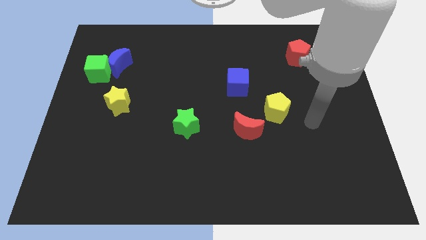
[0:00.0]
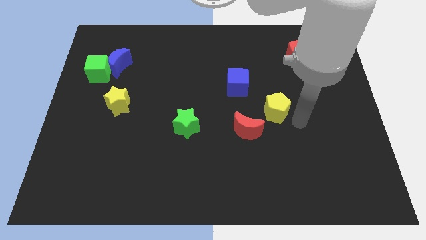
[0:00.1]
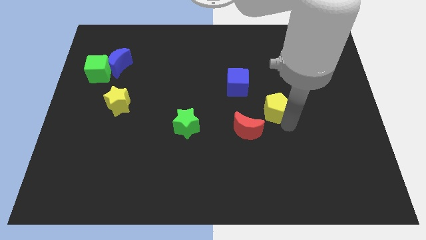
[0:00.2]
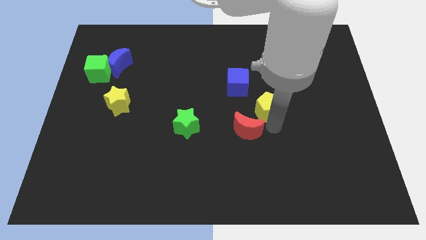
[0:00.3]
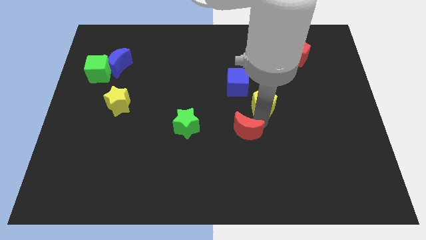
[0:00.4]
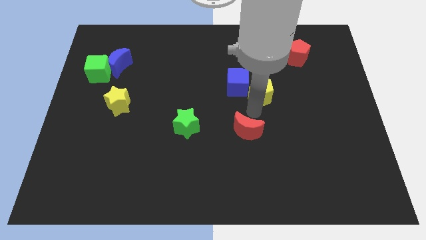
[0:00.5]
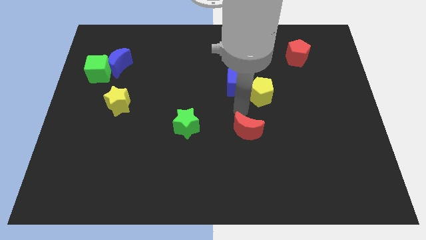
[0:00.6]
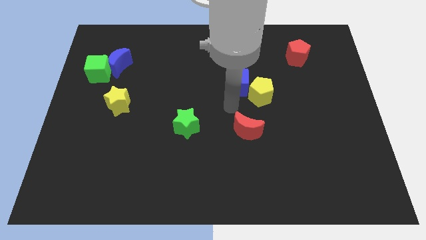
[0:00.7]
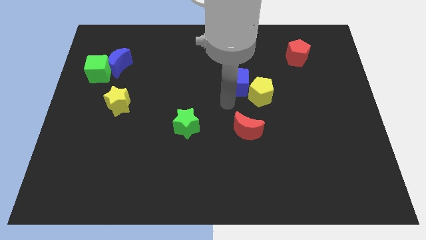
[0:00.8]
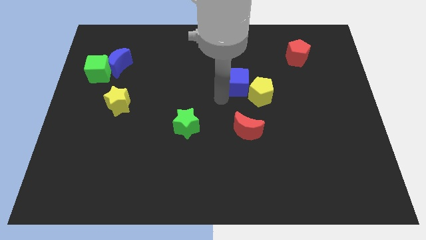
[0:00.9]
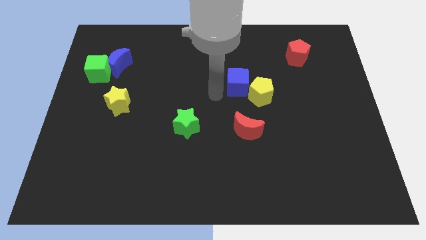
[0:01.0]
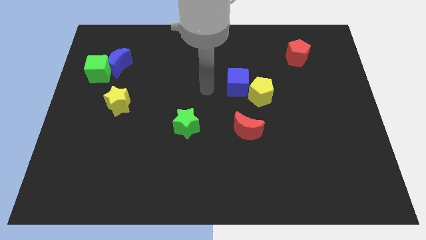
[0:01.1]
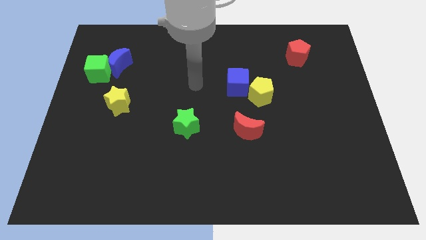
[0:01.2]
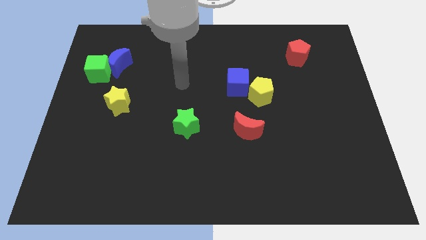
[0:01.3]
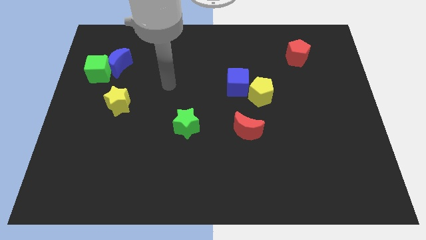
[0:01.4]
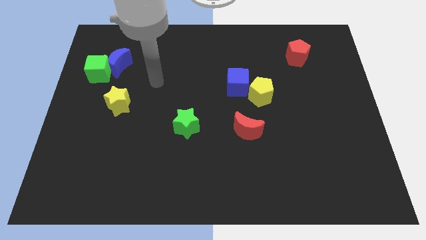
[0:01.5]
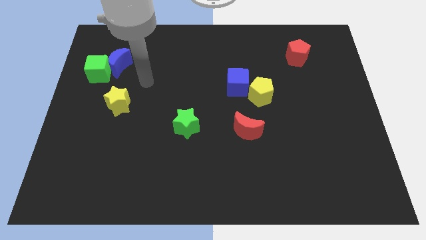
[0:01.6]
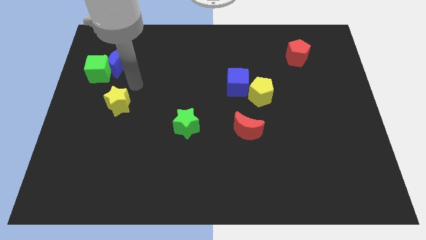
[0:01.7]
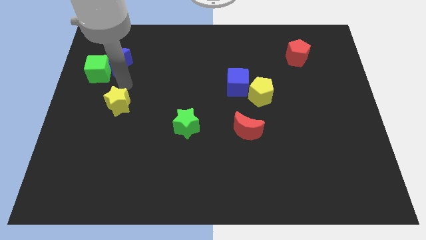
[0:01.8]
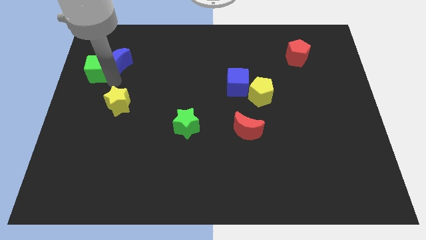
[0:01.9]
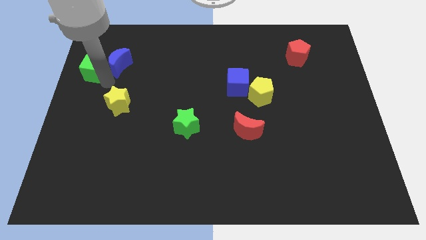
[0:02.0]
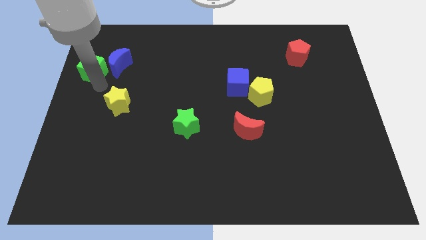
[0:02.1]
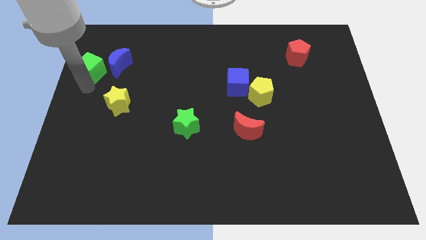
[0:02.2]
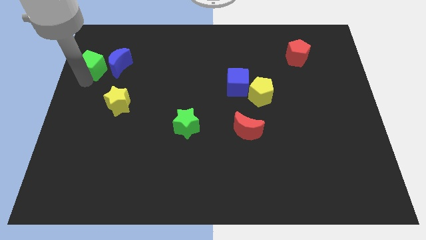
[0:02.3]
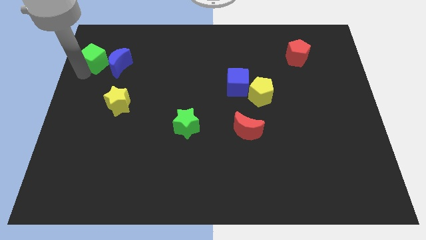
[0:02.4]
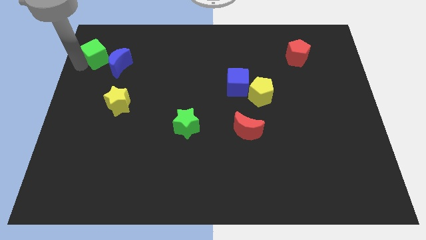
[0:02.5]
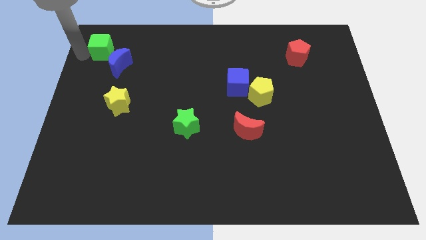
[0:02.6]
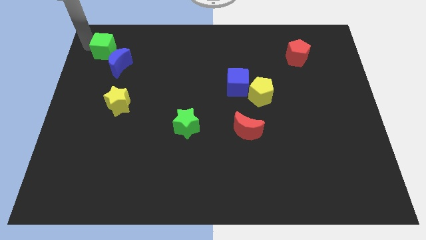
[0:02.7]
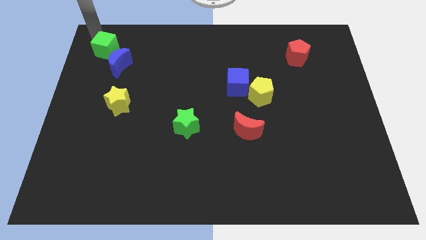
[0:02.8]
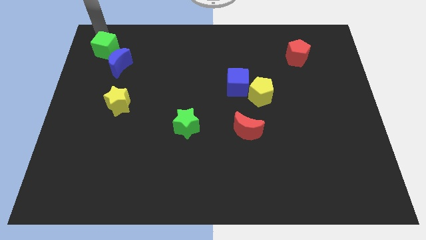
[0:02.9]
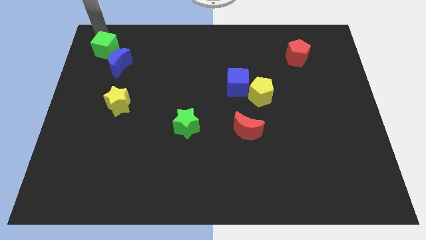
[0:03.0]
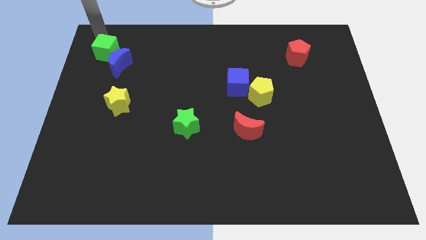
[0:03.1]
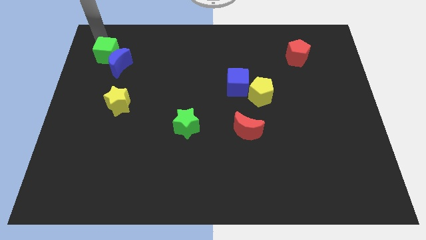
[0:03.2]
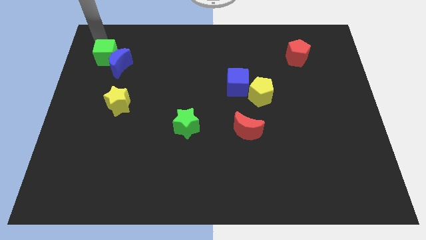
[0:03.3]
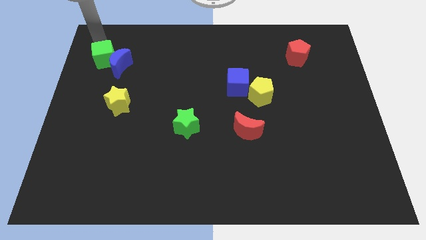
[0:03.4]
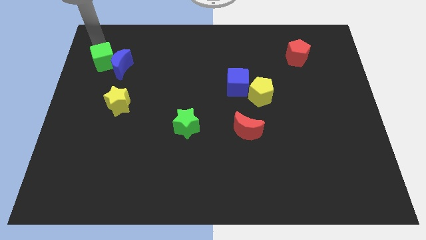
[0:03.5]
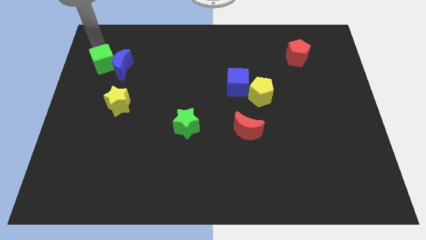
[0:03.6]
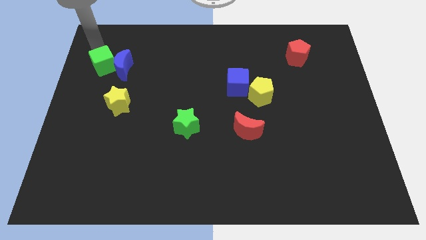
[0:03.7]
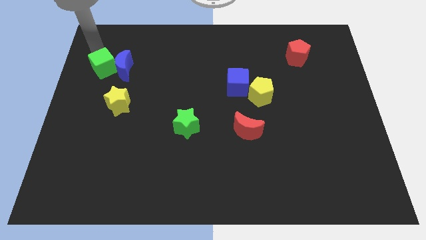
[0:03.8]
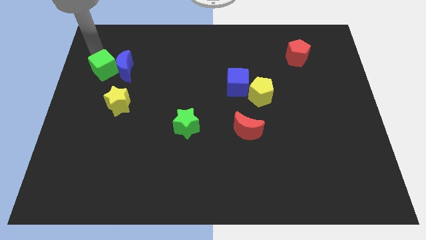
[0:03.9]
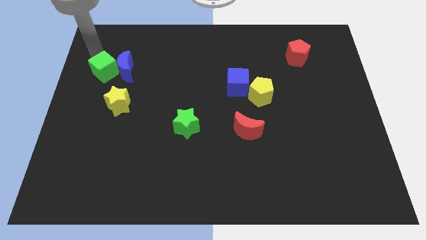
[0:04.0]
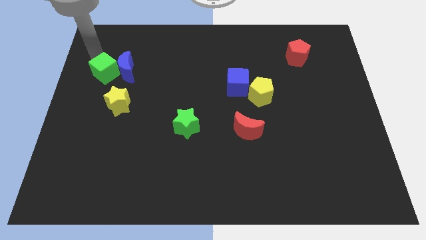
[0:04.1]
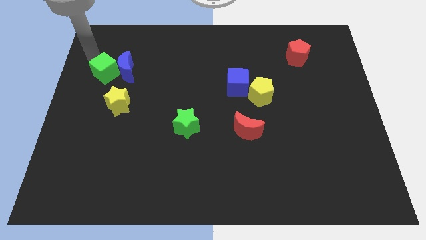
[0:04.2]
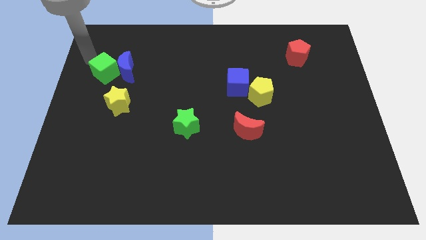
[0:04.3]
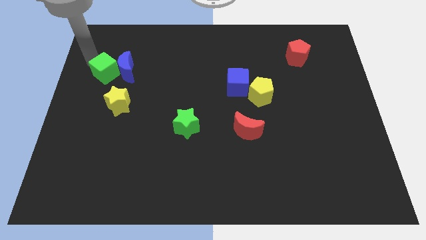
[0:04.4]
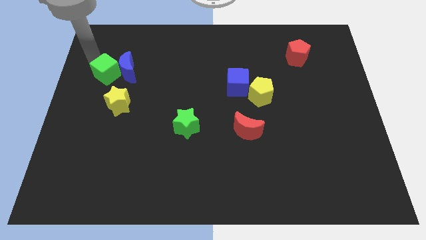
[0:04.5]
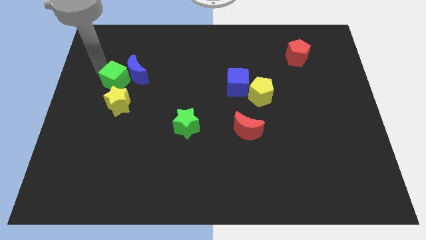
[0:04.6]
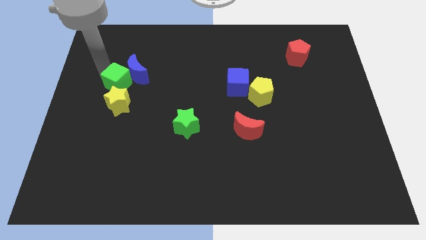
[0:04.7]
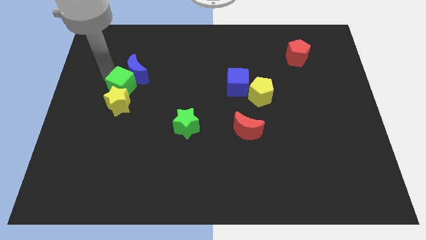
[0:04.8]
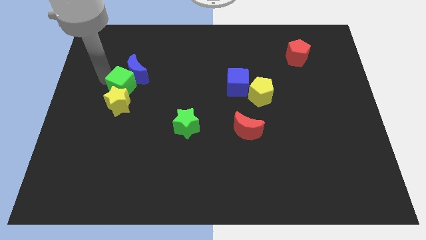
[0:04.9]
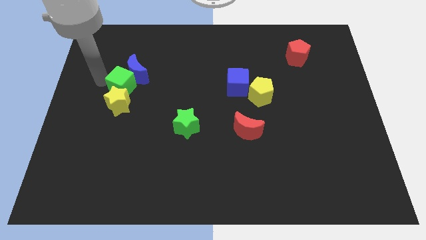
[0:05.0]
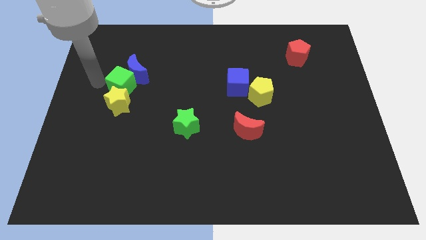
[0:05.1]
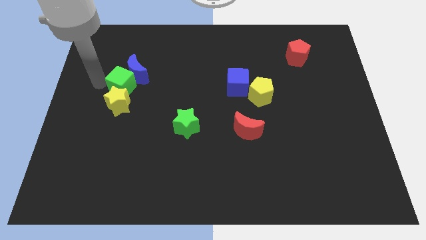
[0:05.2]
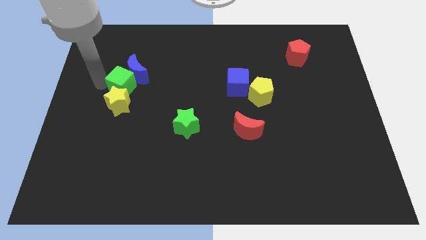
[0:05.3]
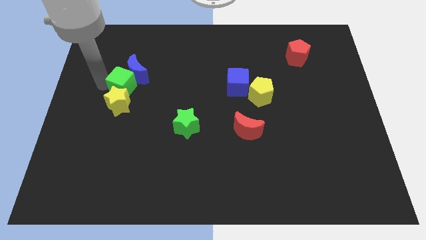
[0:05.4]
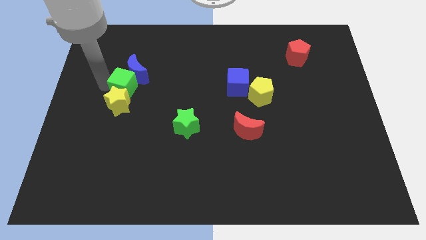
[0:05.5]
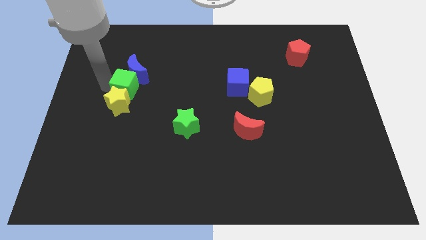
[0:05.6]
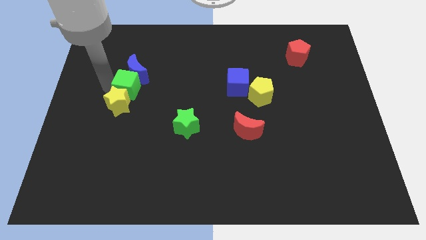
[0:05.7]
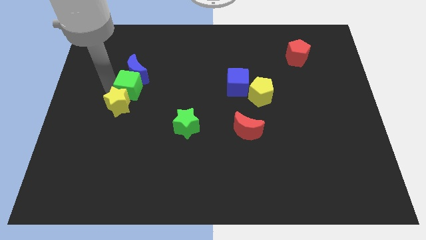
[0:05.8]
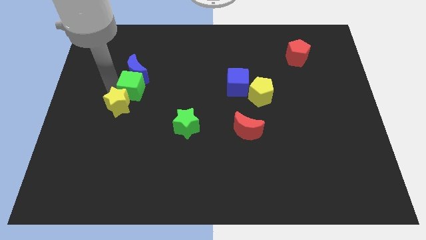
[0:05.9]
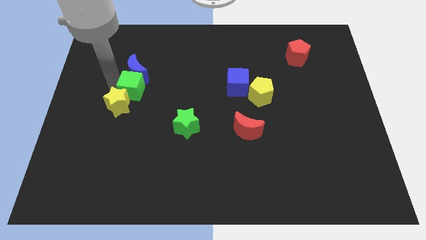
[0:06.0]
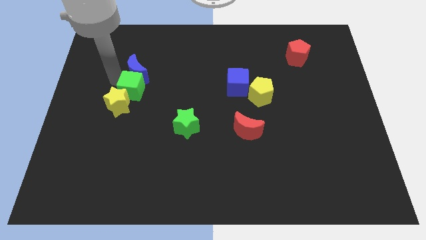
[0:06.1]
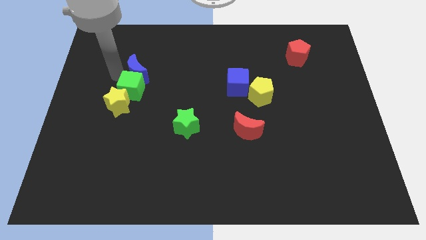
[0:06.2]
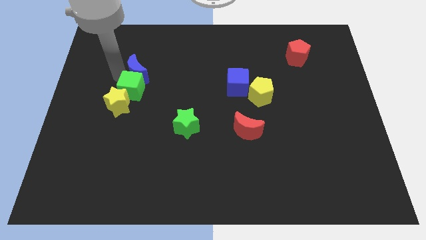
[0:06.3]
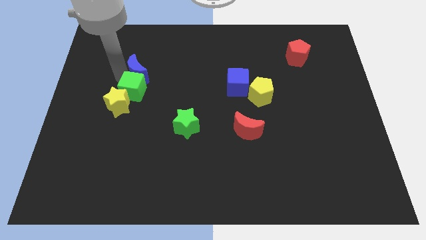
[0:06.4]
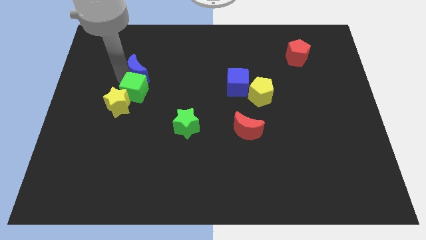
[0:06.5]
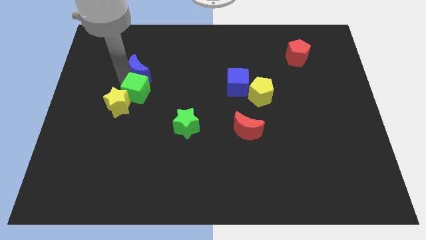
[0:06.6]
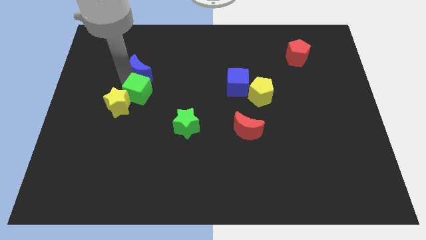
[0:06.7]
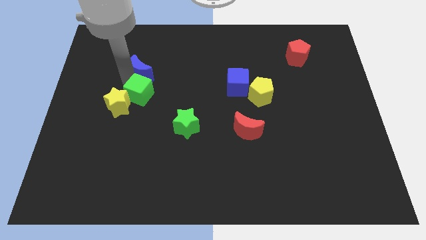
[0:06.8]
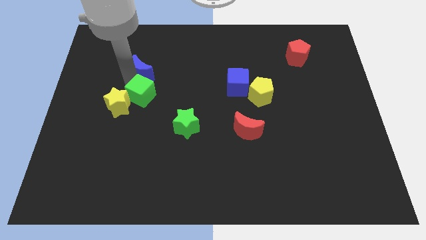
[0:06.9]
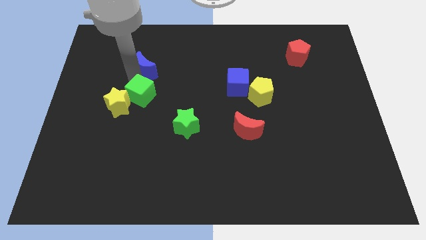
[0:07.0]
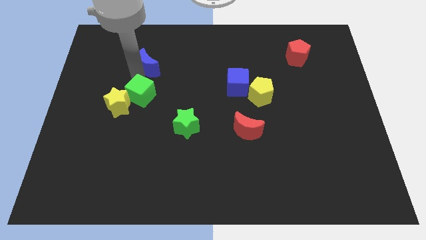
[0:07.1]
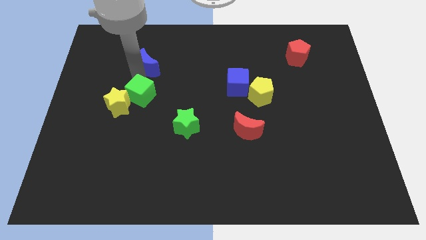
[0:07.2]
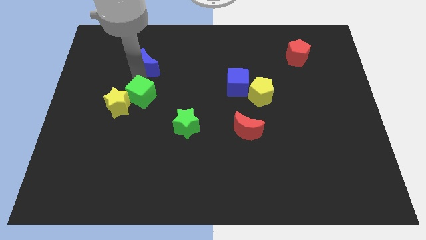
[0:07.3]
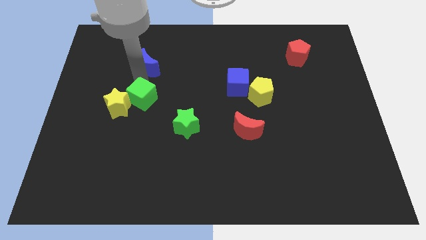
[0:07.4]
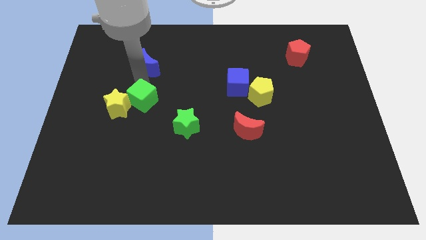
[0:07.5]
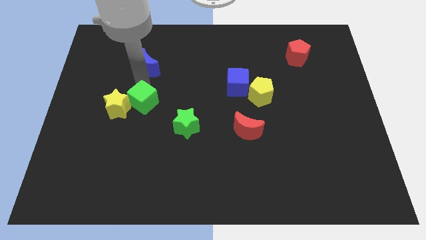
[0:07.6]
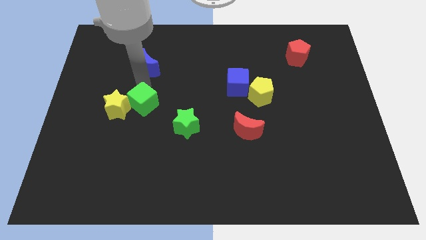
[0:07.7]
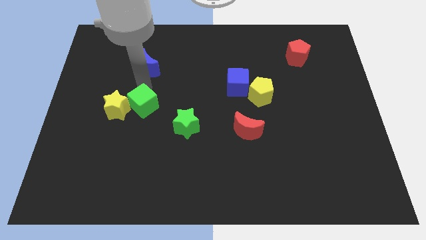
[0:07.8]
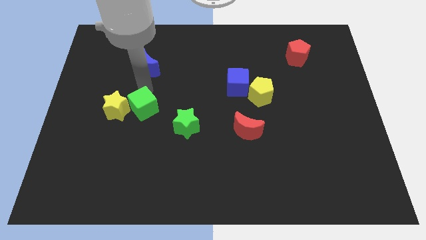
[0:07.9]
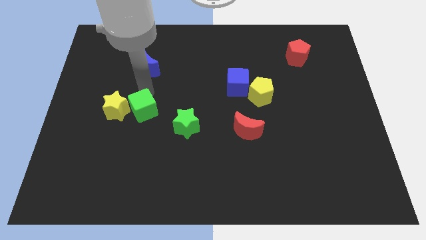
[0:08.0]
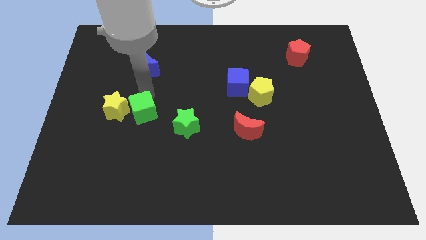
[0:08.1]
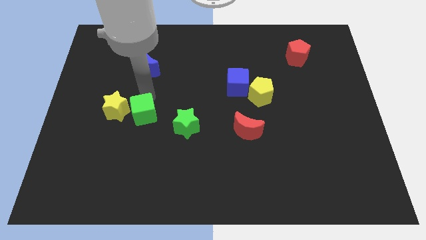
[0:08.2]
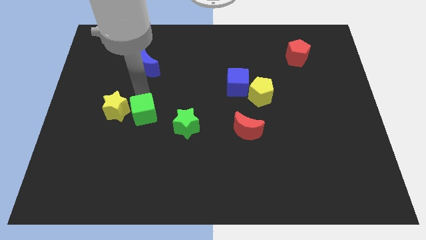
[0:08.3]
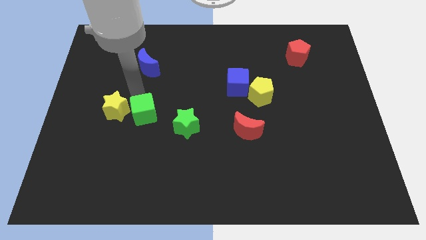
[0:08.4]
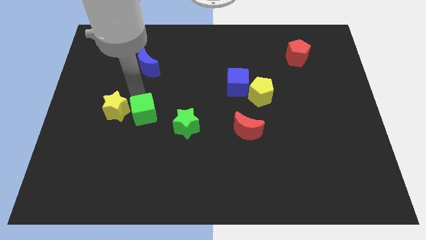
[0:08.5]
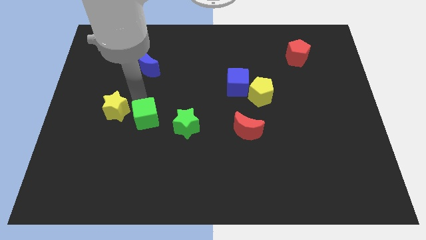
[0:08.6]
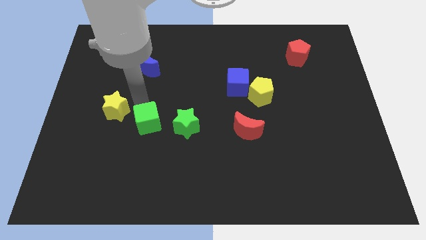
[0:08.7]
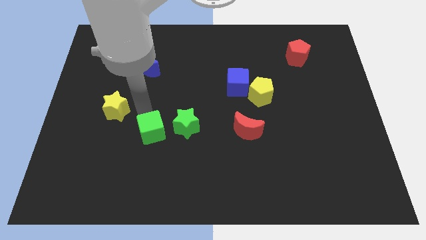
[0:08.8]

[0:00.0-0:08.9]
push the green cube to the bottom left side of the green star
